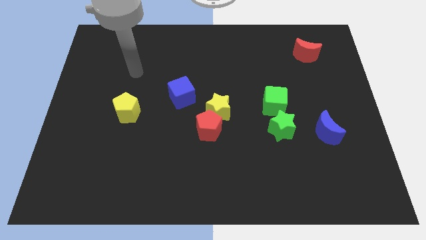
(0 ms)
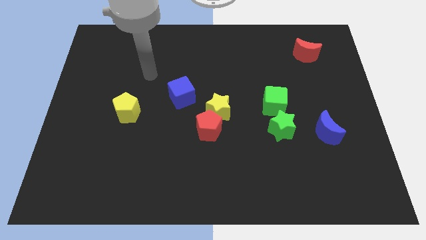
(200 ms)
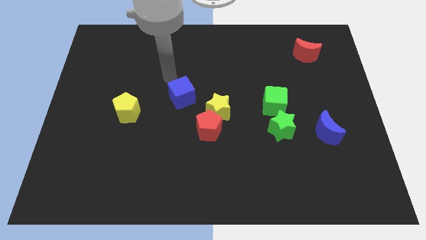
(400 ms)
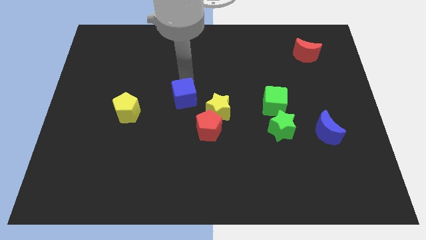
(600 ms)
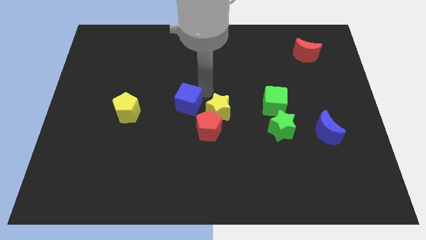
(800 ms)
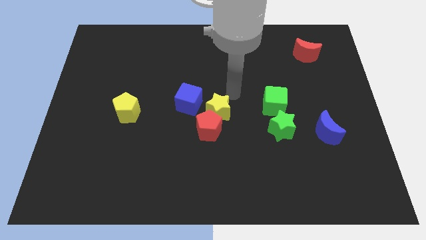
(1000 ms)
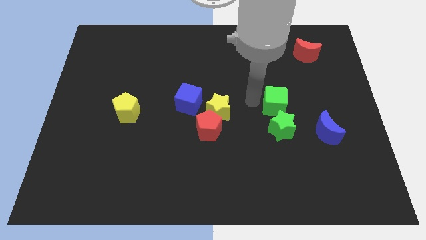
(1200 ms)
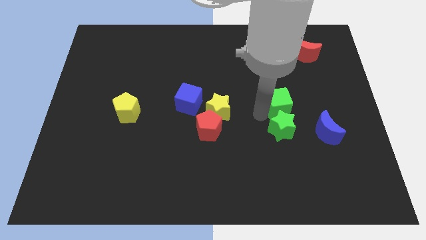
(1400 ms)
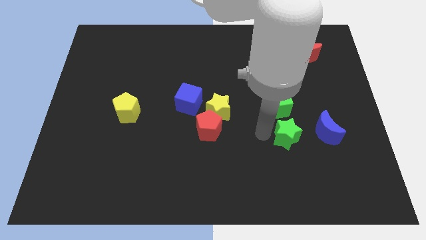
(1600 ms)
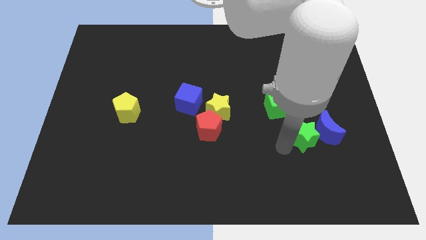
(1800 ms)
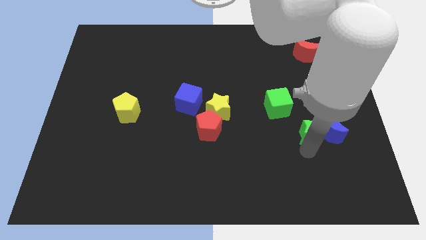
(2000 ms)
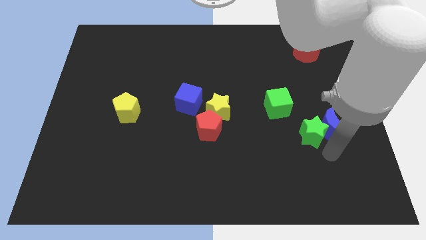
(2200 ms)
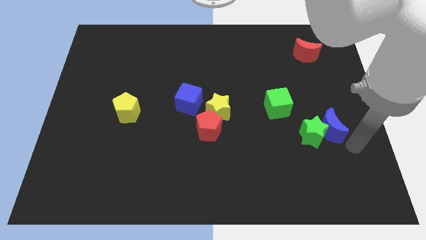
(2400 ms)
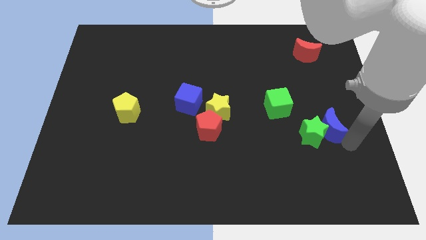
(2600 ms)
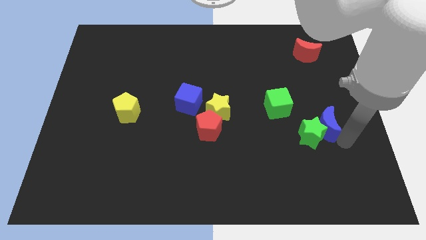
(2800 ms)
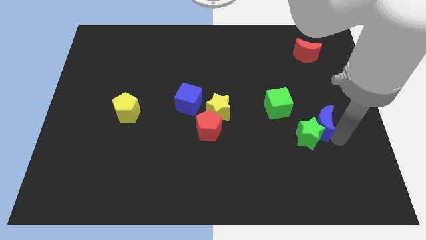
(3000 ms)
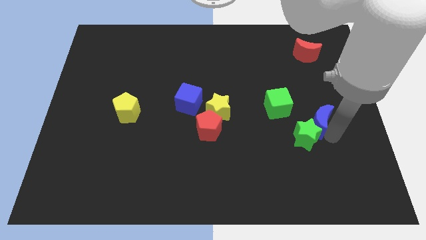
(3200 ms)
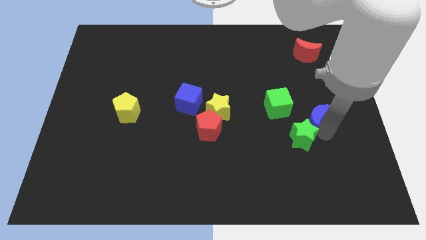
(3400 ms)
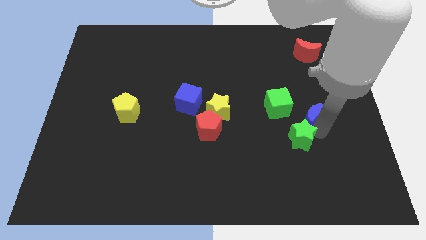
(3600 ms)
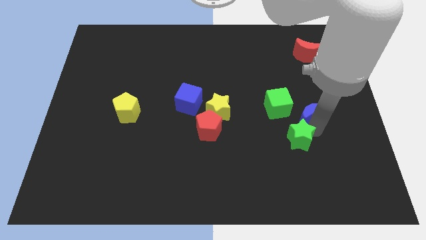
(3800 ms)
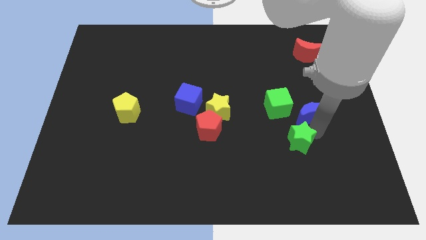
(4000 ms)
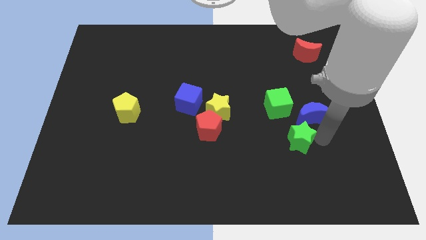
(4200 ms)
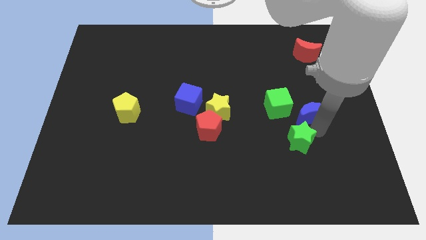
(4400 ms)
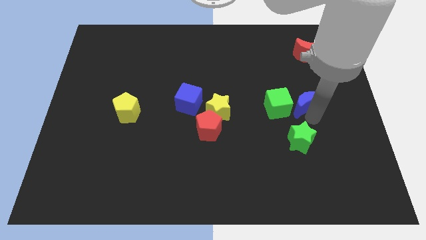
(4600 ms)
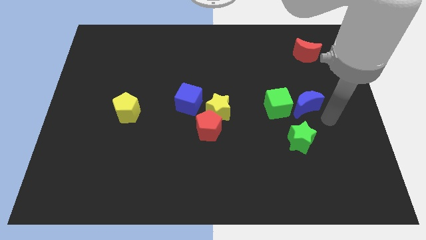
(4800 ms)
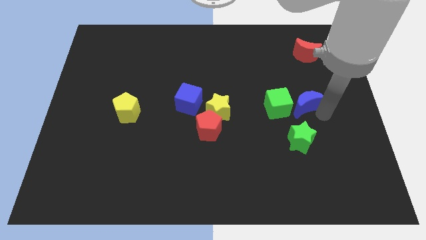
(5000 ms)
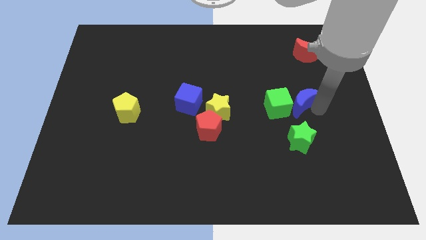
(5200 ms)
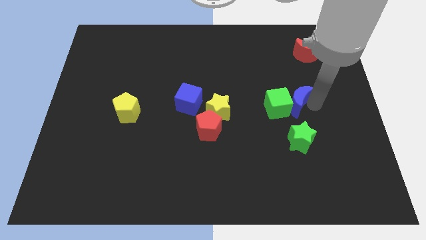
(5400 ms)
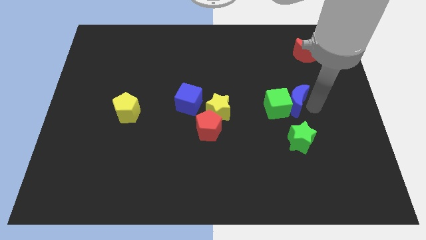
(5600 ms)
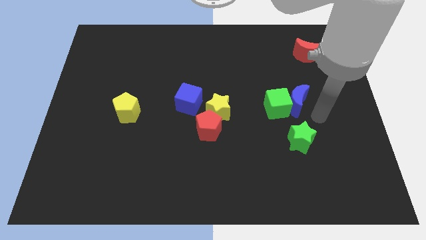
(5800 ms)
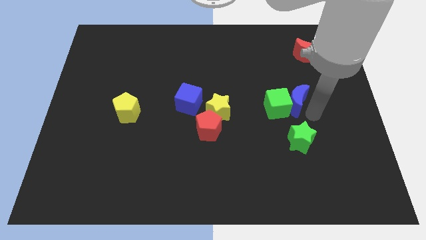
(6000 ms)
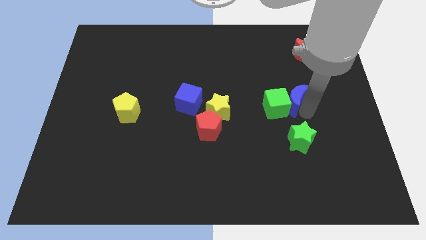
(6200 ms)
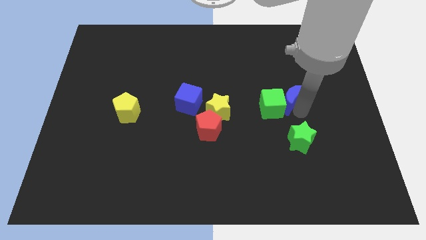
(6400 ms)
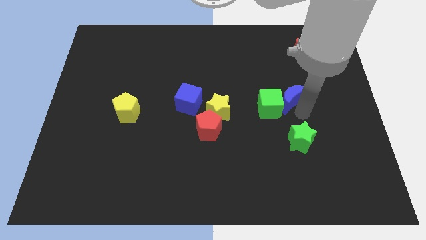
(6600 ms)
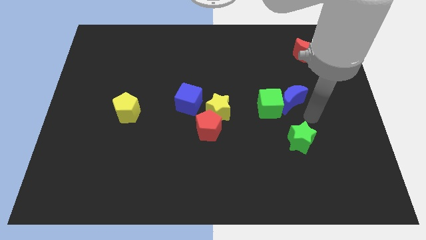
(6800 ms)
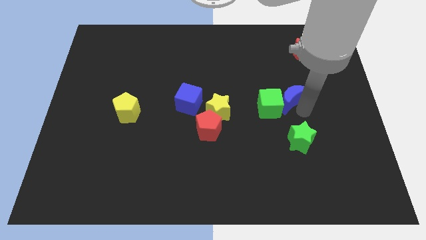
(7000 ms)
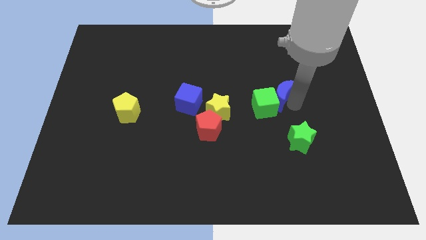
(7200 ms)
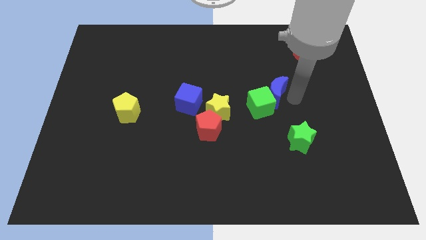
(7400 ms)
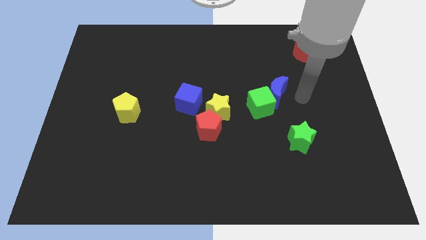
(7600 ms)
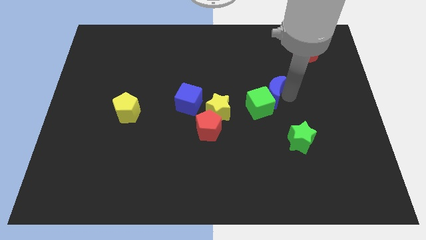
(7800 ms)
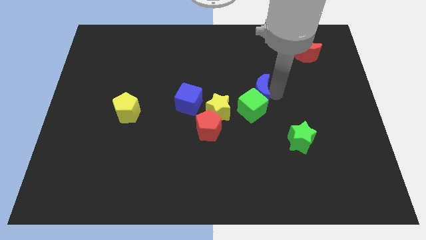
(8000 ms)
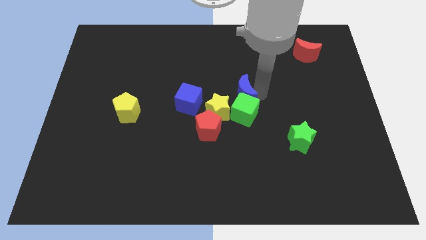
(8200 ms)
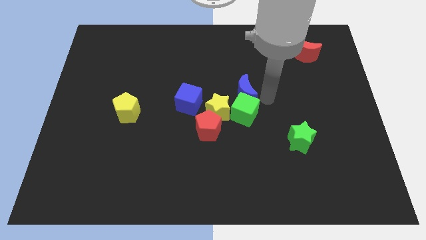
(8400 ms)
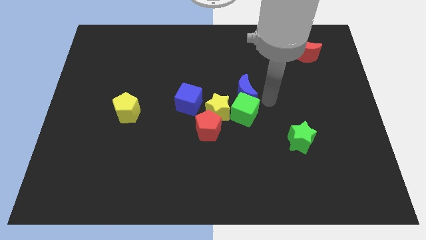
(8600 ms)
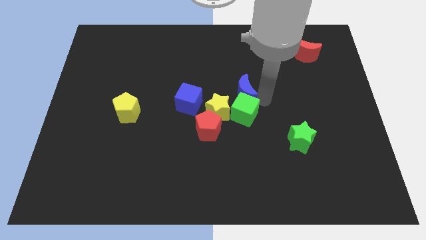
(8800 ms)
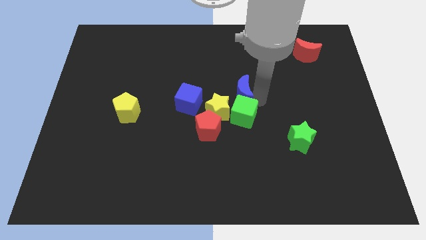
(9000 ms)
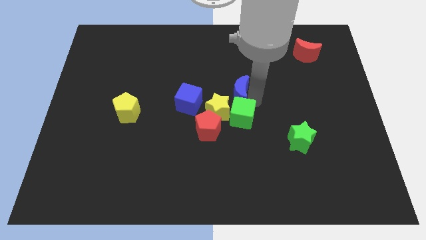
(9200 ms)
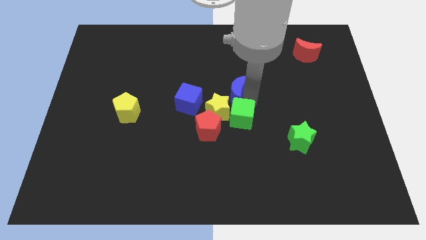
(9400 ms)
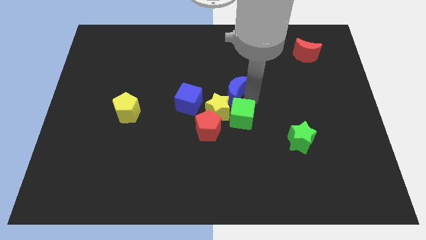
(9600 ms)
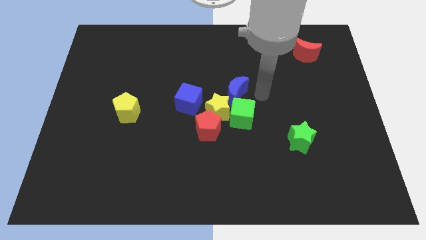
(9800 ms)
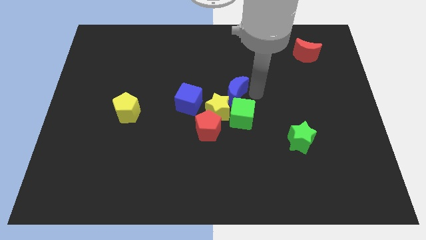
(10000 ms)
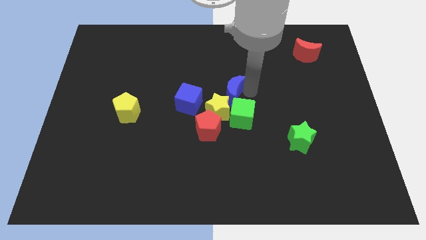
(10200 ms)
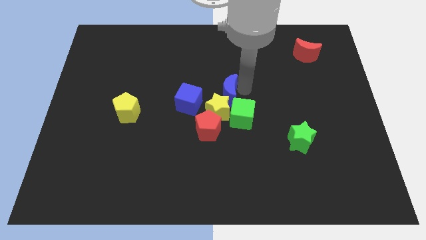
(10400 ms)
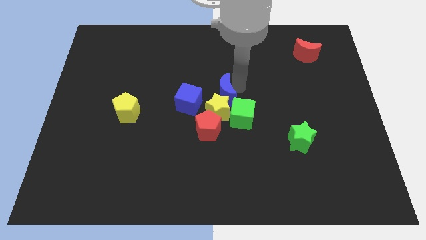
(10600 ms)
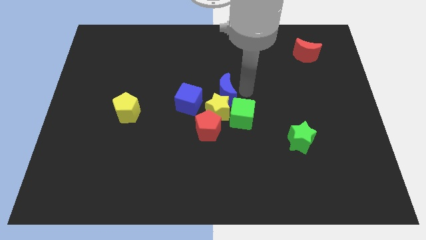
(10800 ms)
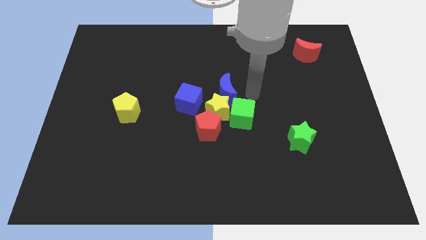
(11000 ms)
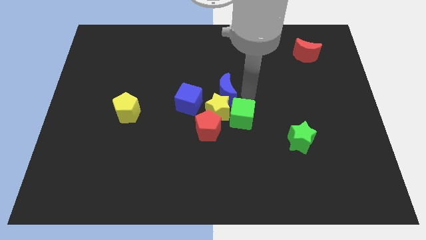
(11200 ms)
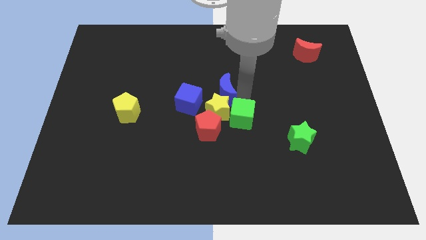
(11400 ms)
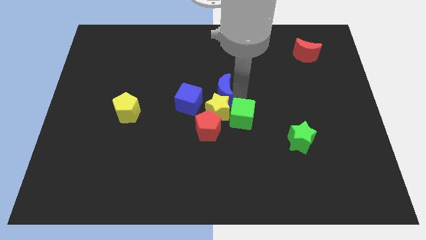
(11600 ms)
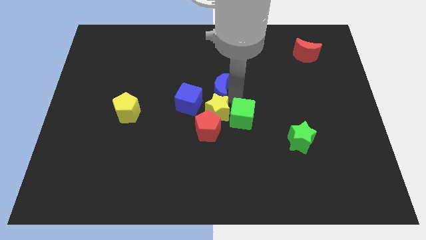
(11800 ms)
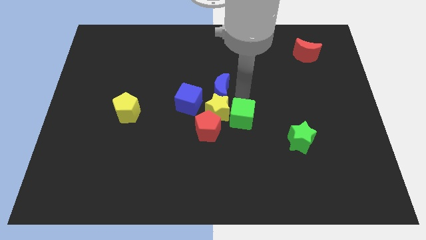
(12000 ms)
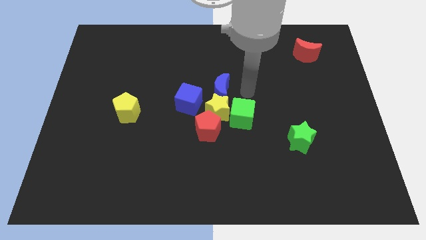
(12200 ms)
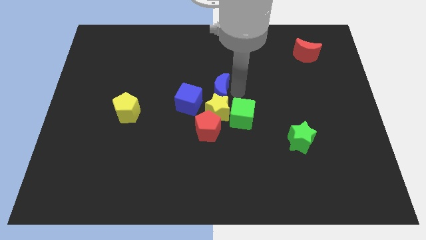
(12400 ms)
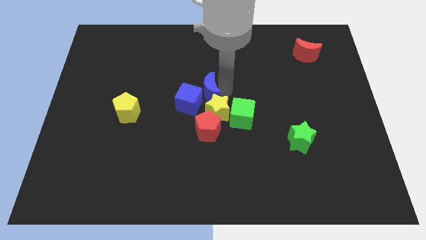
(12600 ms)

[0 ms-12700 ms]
move the blue moon next to the blue cube
